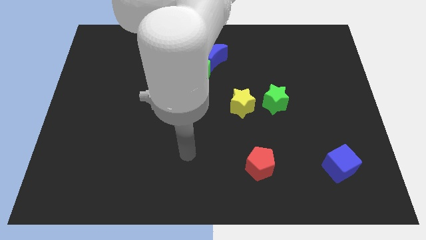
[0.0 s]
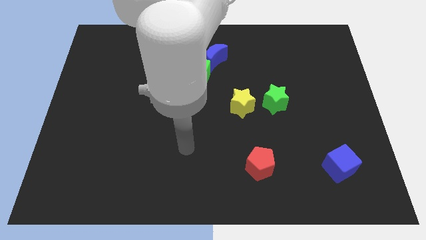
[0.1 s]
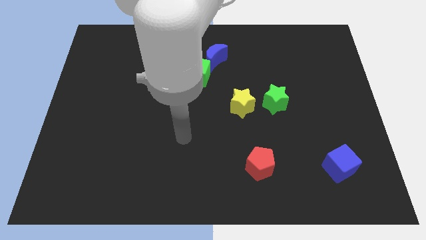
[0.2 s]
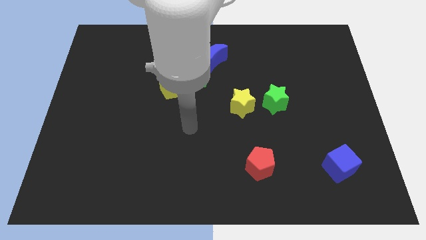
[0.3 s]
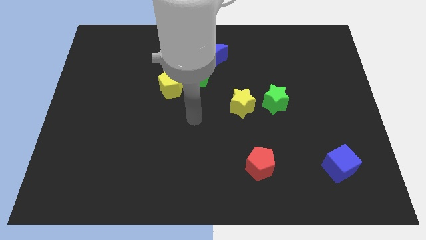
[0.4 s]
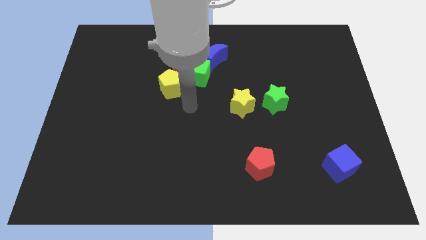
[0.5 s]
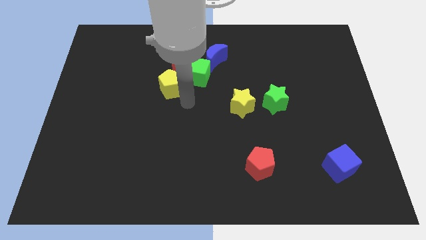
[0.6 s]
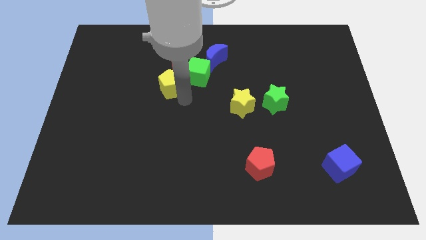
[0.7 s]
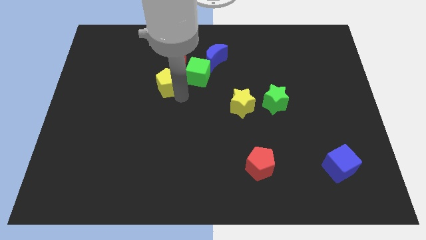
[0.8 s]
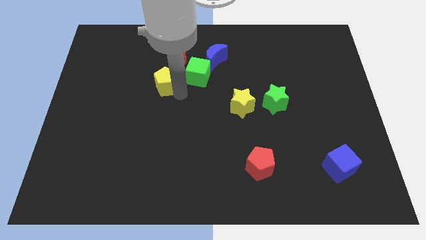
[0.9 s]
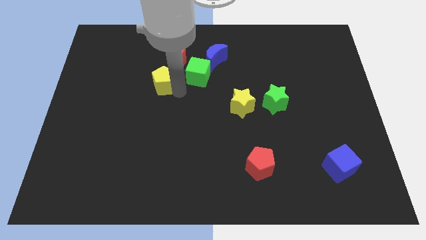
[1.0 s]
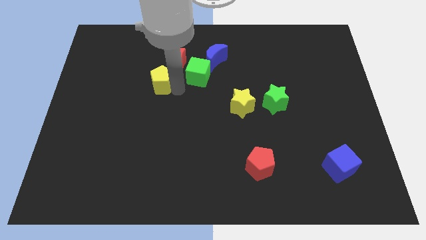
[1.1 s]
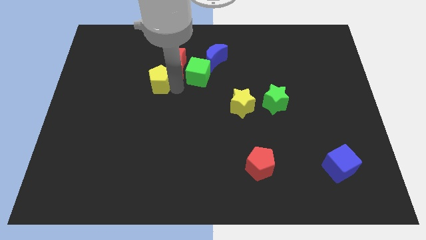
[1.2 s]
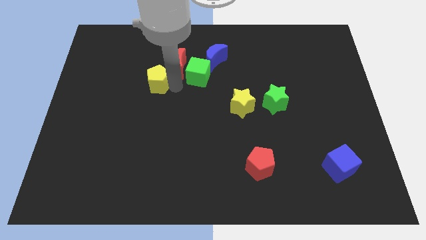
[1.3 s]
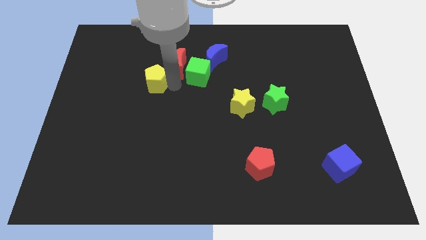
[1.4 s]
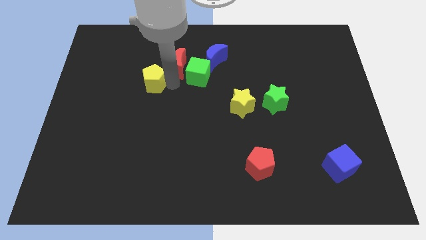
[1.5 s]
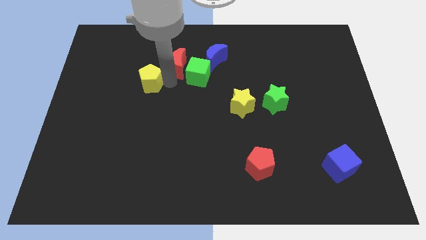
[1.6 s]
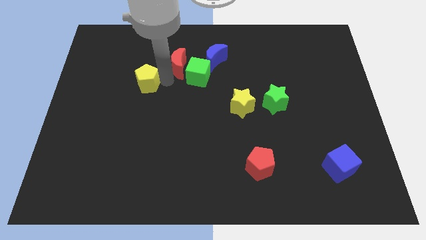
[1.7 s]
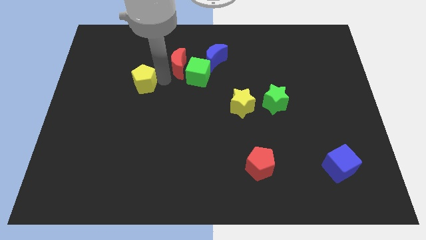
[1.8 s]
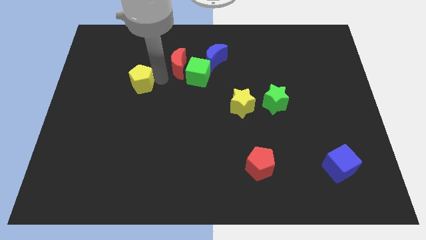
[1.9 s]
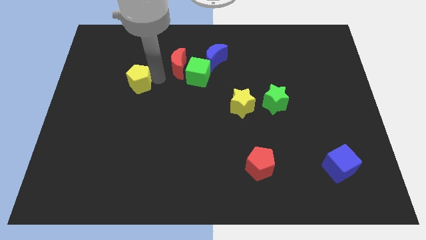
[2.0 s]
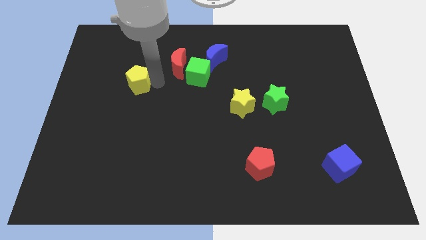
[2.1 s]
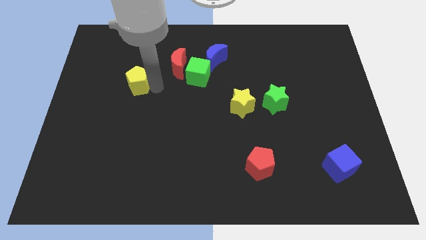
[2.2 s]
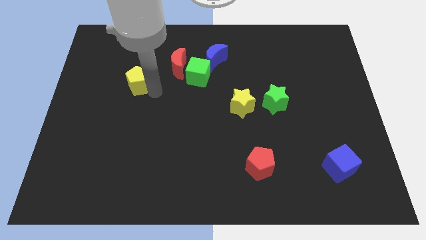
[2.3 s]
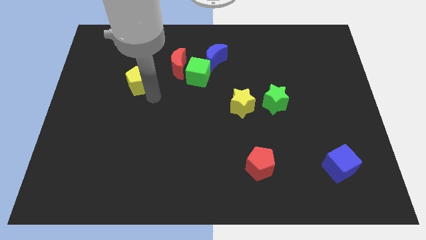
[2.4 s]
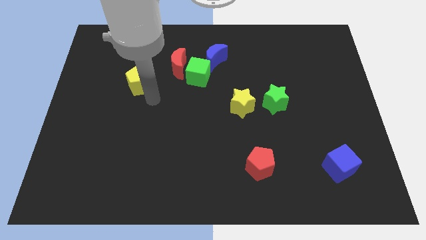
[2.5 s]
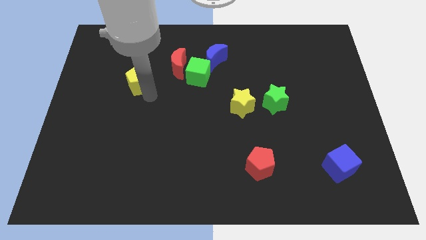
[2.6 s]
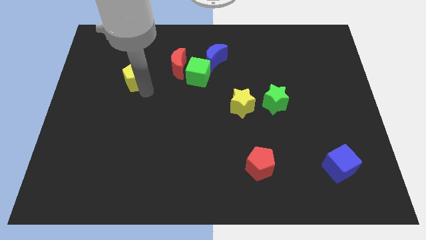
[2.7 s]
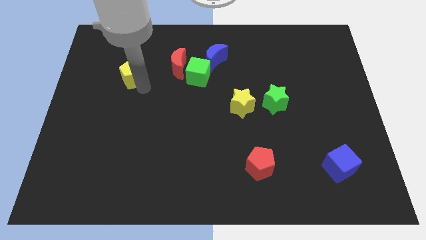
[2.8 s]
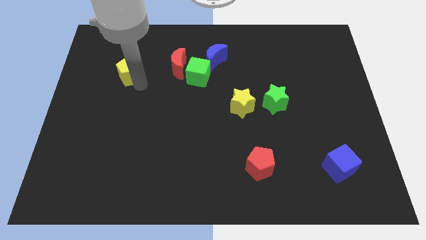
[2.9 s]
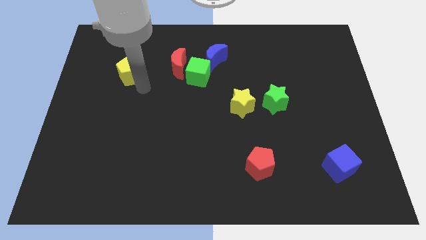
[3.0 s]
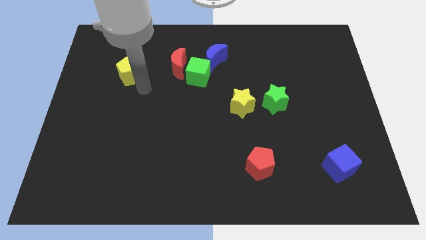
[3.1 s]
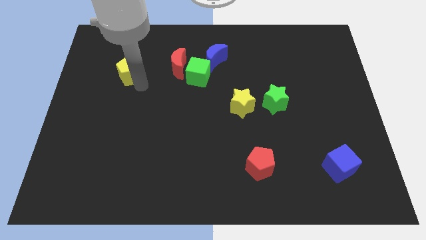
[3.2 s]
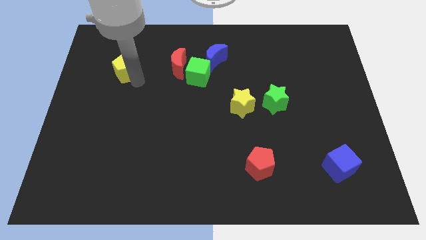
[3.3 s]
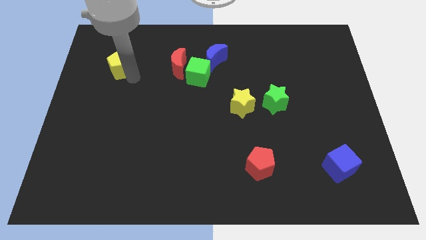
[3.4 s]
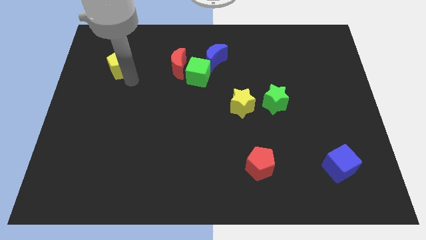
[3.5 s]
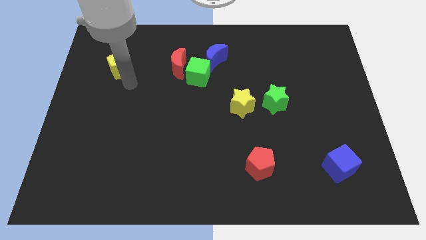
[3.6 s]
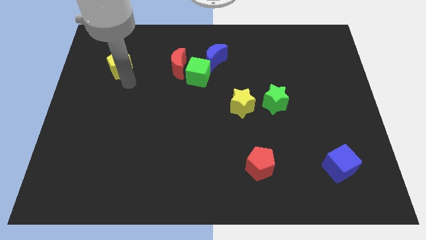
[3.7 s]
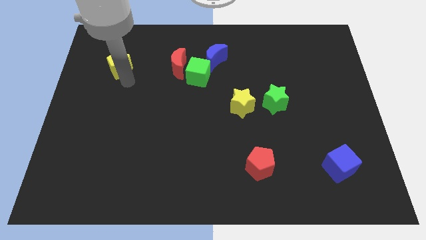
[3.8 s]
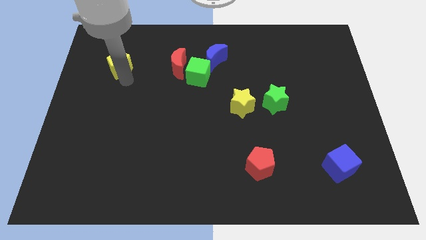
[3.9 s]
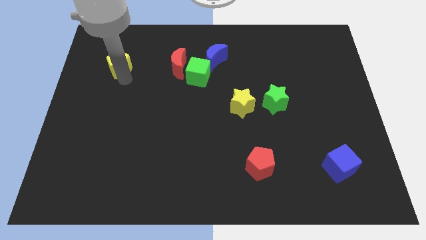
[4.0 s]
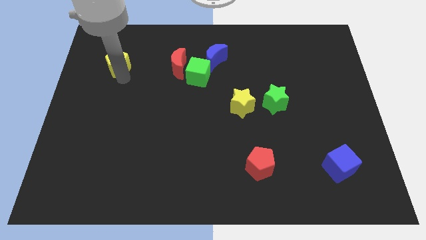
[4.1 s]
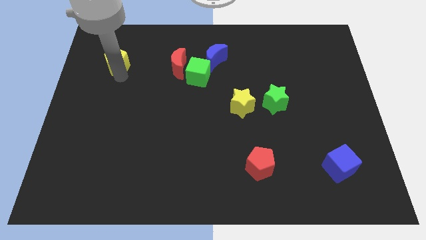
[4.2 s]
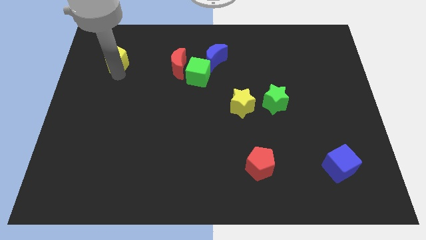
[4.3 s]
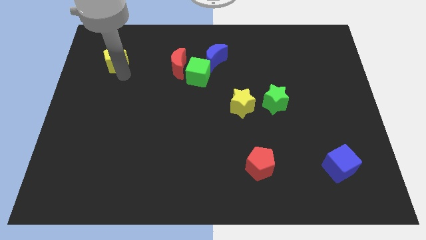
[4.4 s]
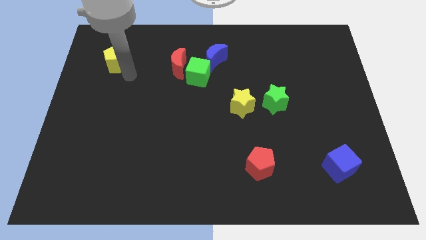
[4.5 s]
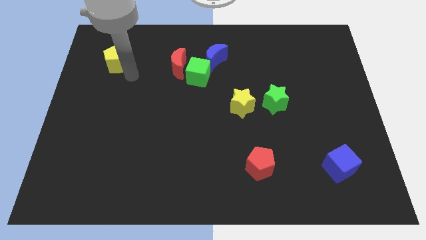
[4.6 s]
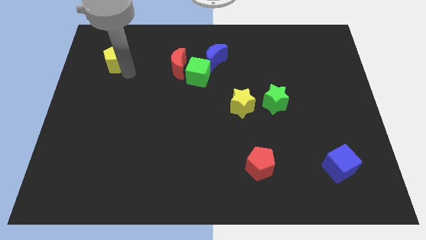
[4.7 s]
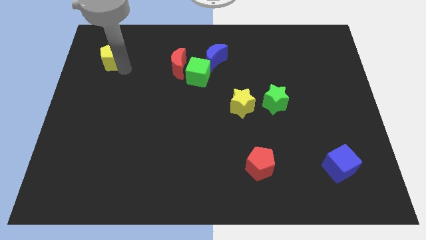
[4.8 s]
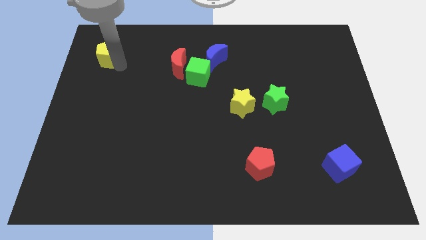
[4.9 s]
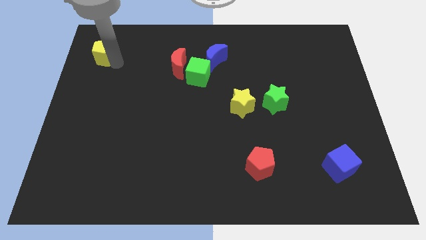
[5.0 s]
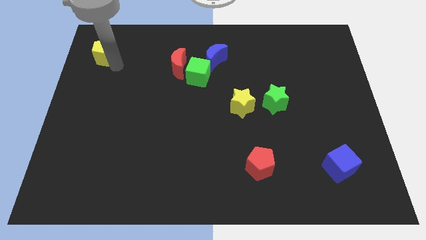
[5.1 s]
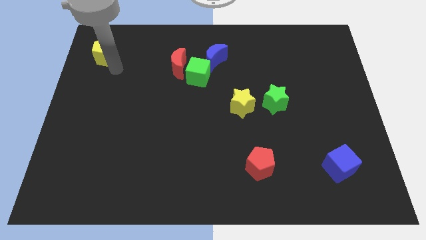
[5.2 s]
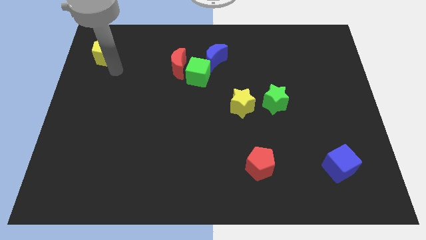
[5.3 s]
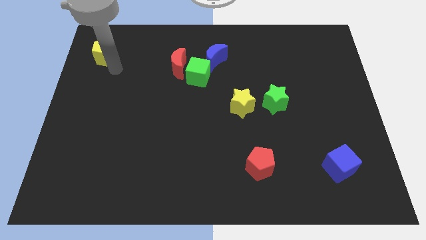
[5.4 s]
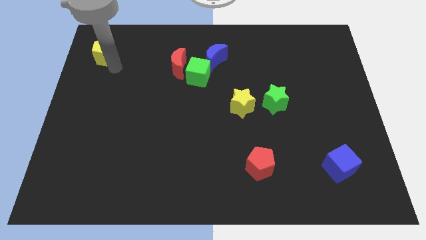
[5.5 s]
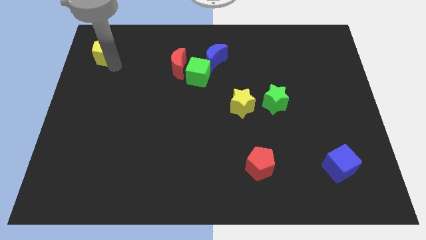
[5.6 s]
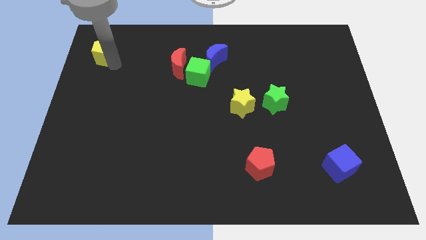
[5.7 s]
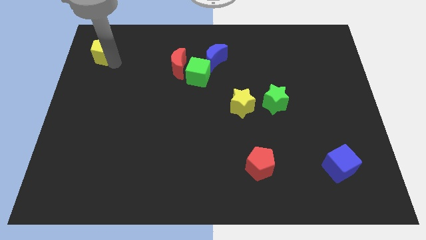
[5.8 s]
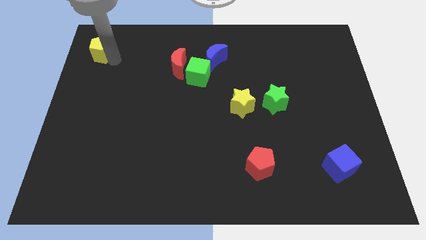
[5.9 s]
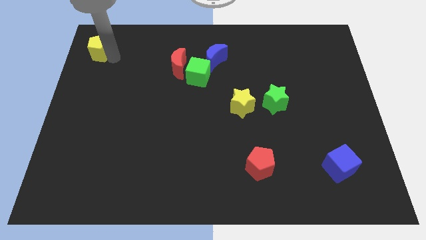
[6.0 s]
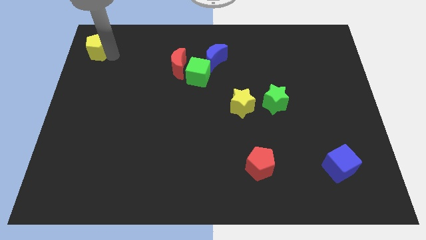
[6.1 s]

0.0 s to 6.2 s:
push the yellow pentagon to the upper left corner
